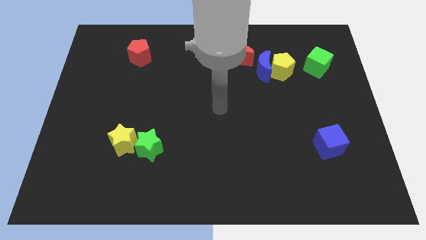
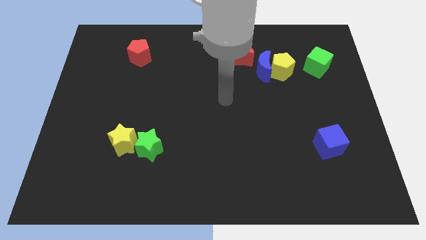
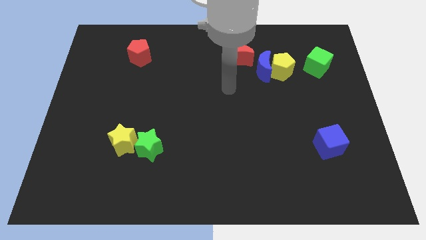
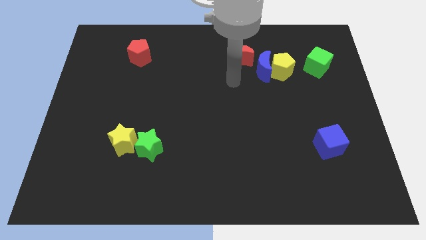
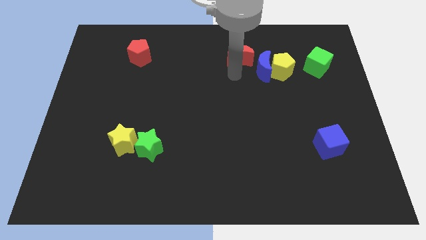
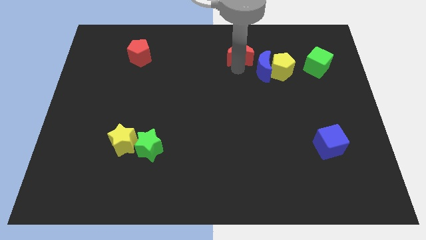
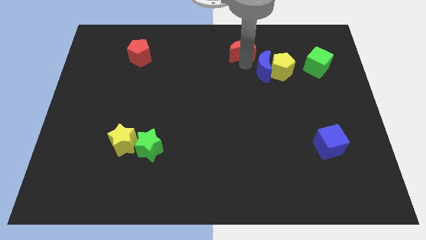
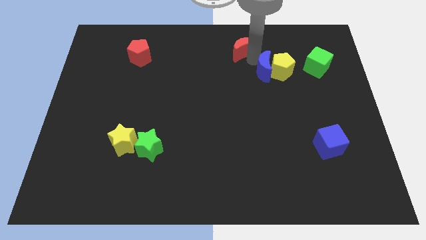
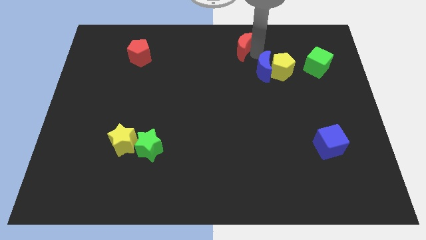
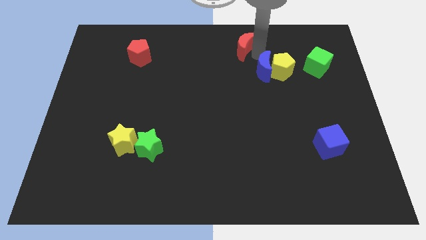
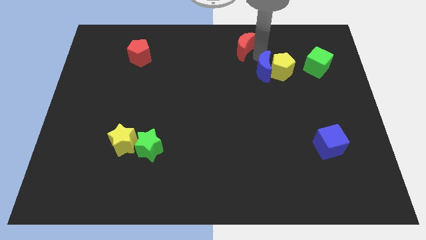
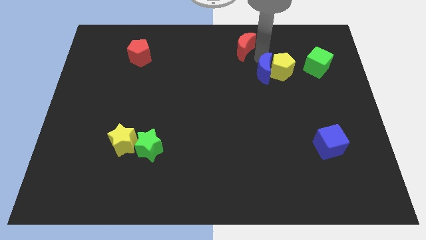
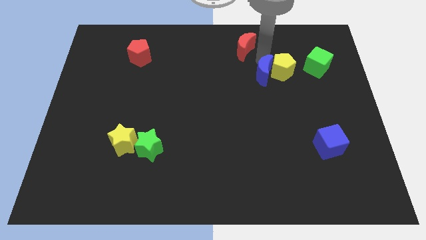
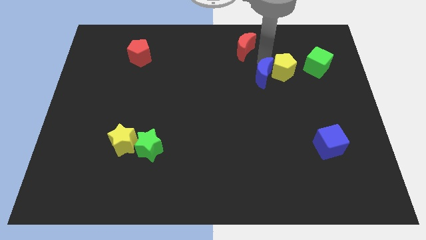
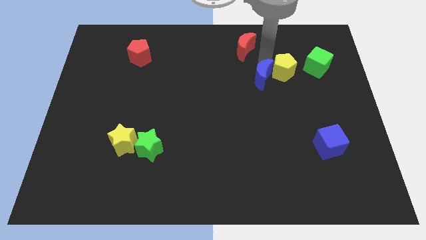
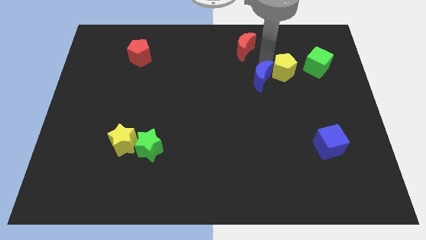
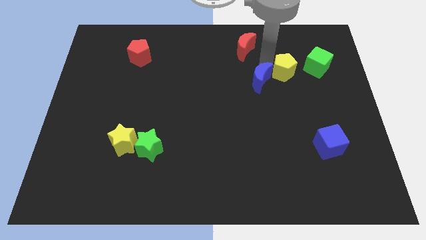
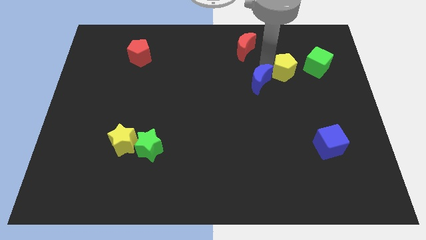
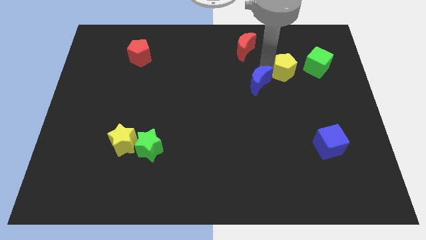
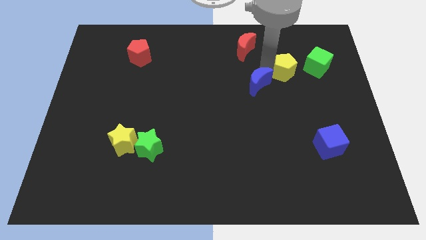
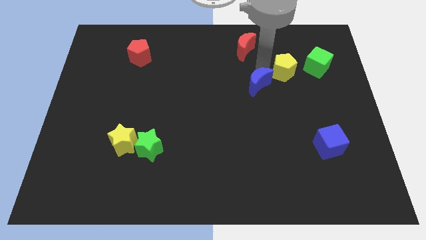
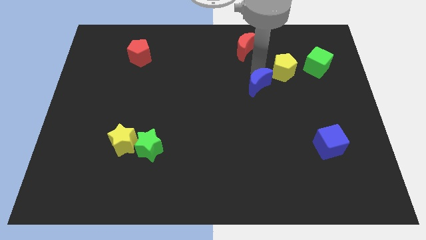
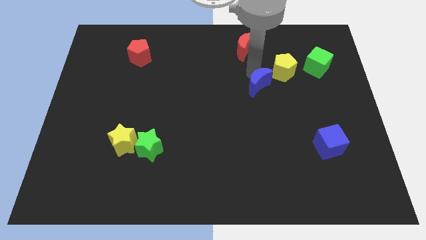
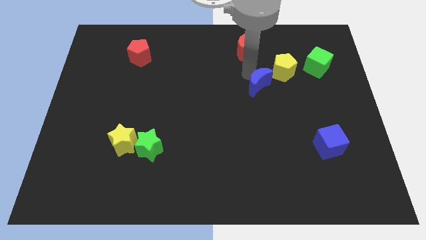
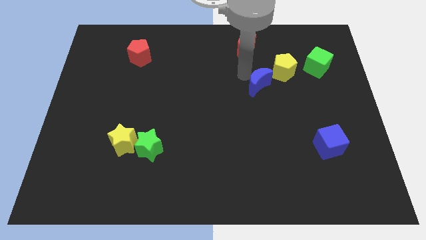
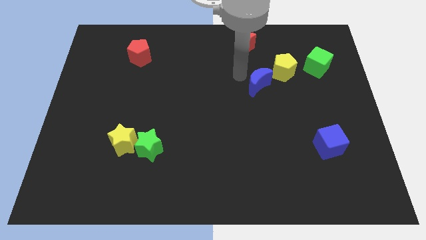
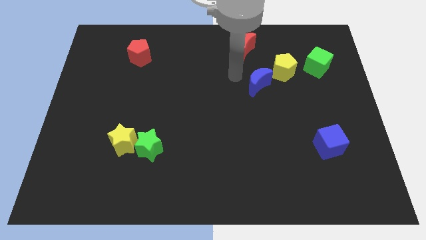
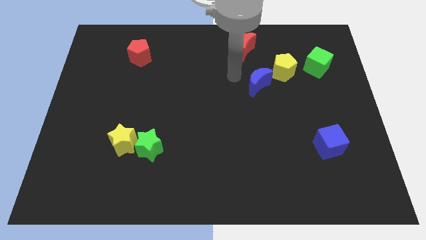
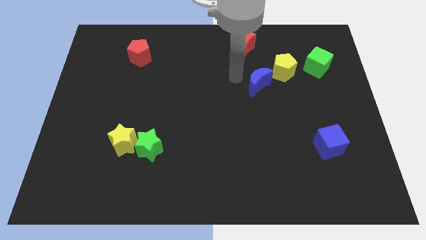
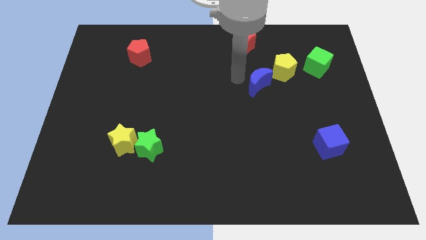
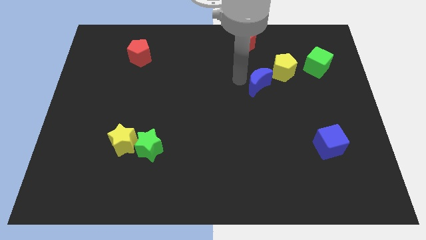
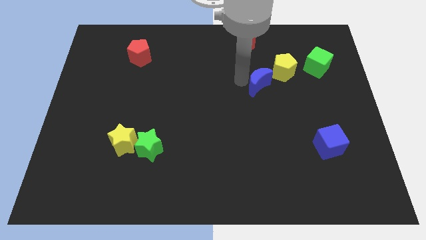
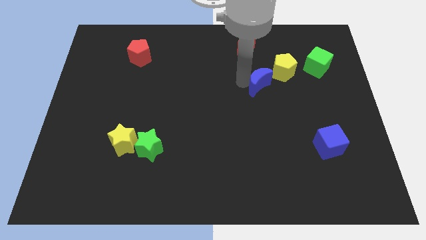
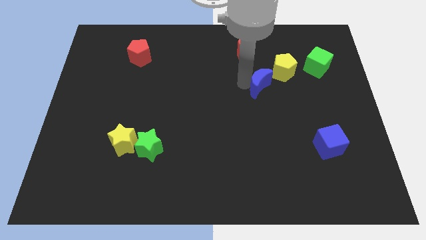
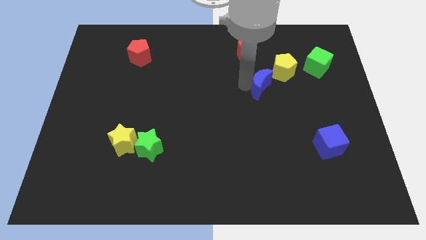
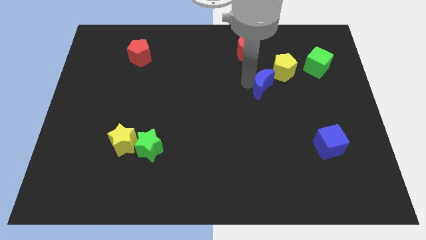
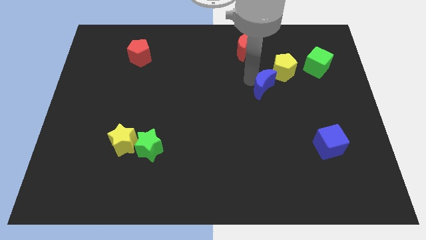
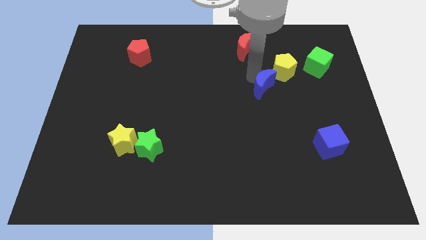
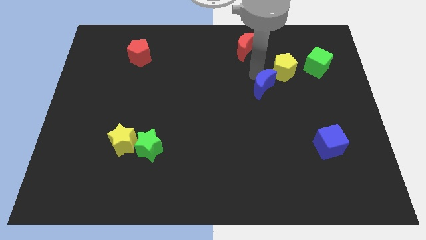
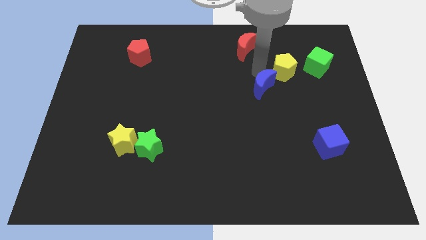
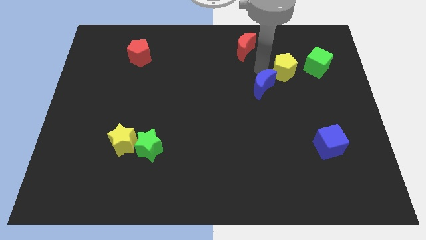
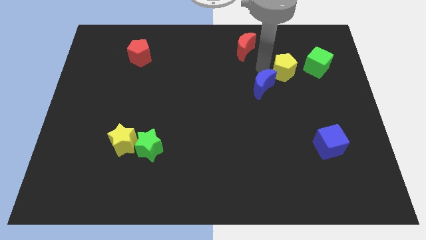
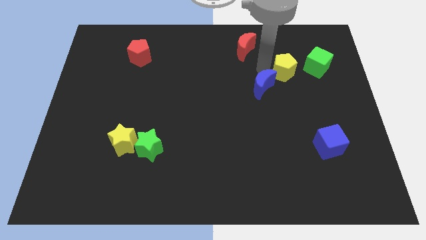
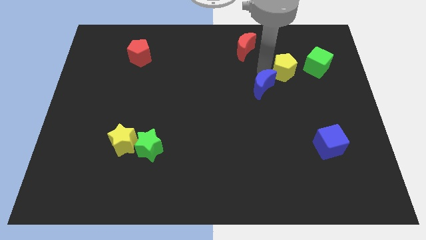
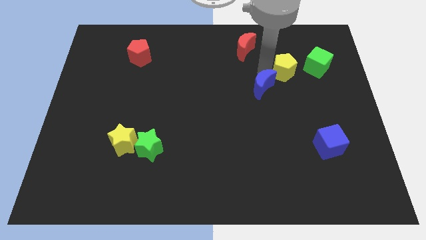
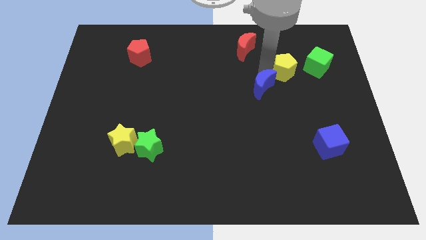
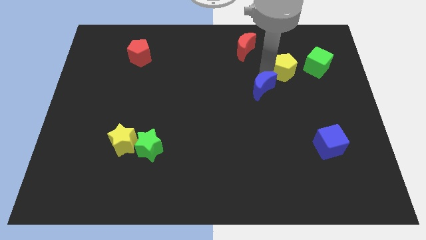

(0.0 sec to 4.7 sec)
separate the blue moon from the yellow pentagon and red moon

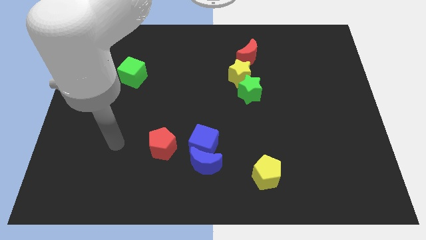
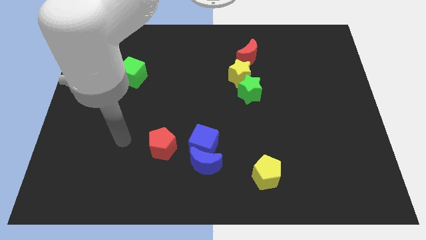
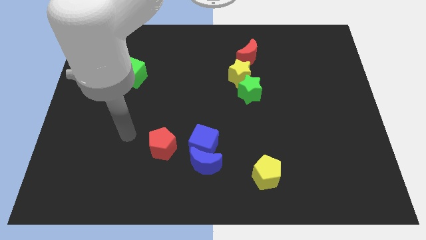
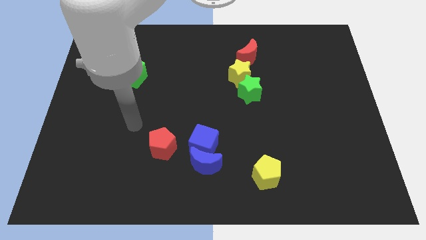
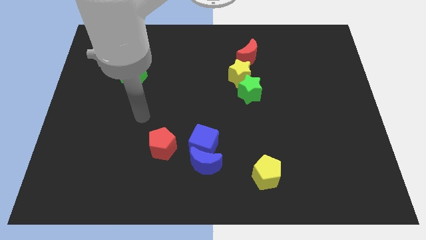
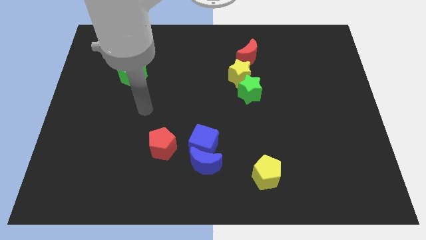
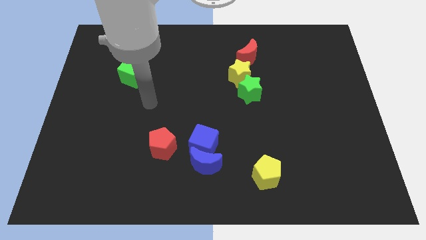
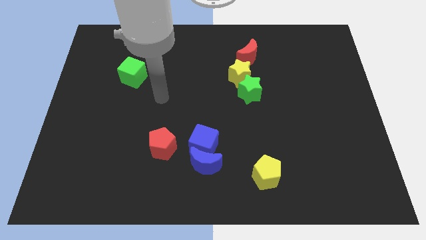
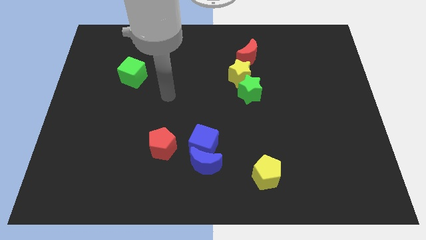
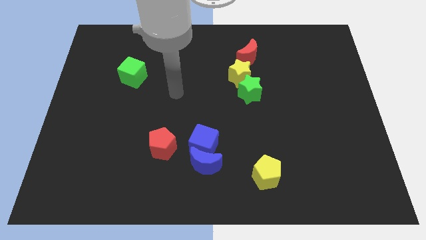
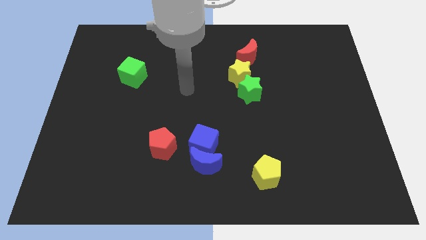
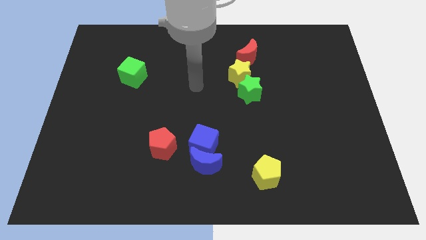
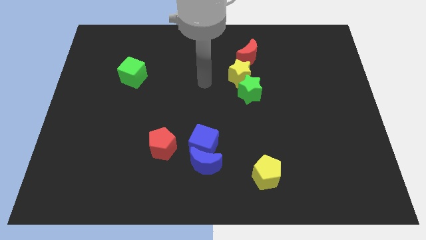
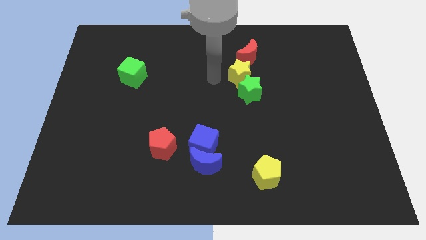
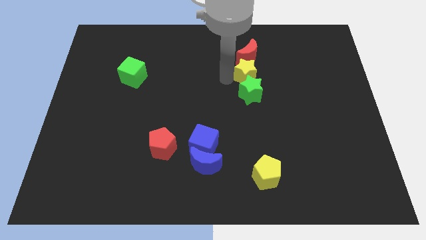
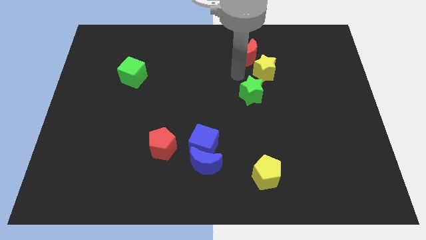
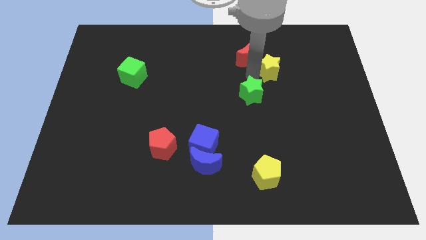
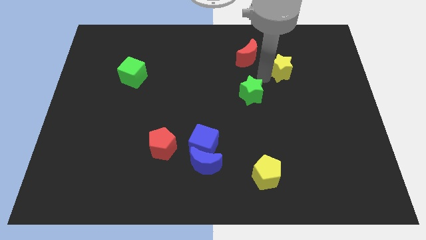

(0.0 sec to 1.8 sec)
pull the green star apart from the yellow star

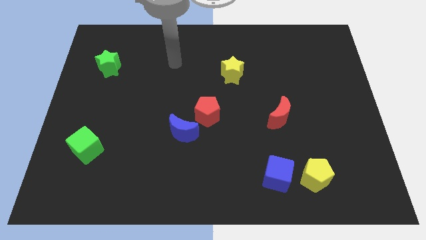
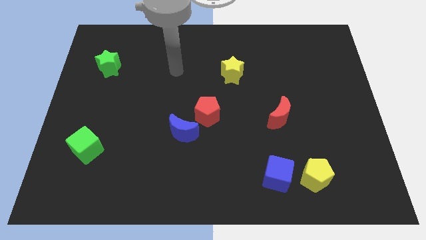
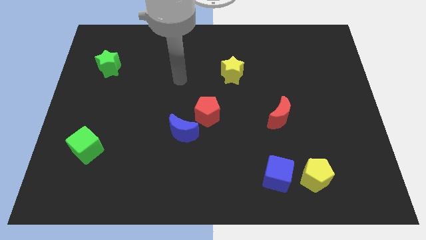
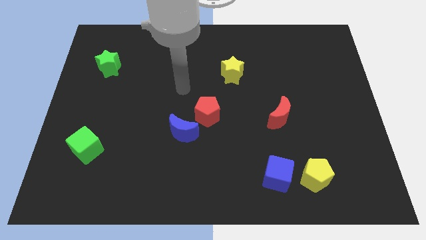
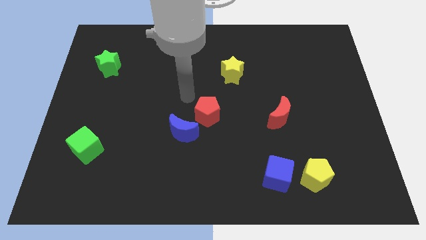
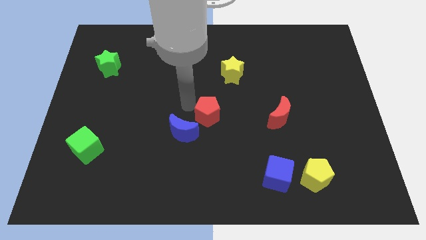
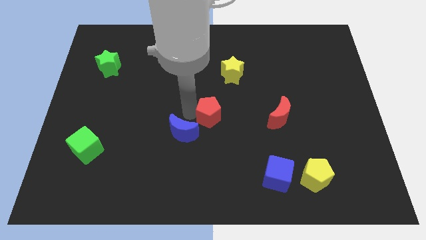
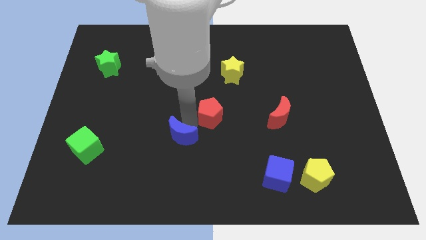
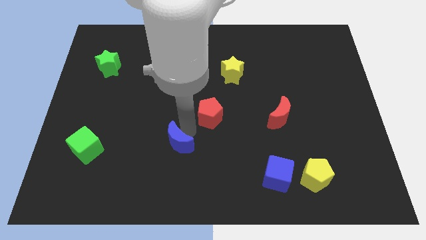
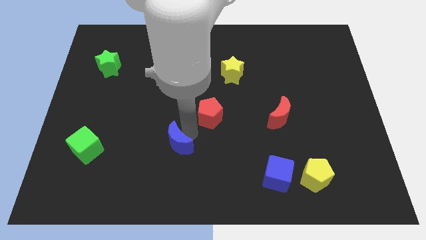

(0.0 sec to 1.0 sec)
pull the red pentagon apart from the blue moon

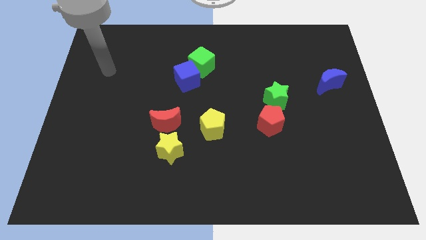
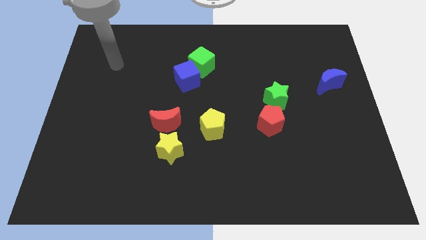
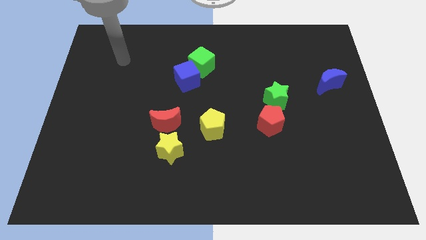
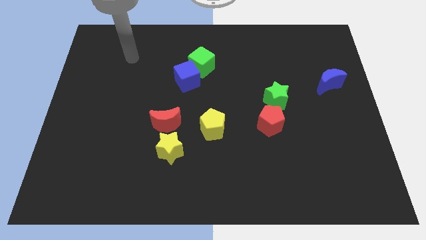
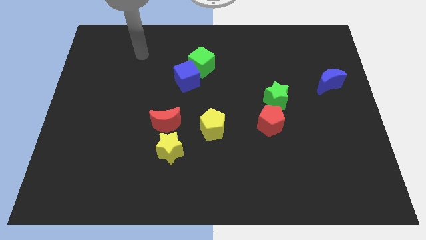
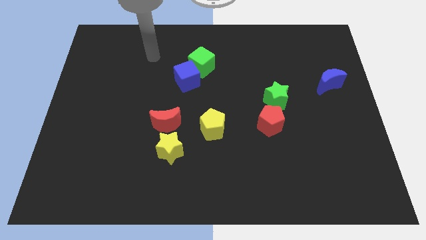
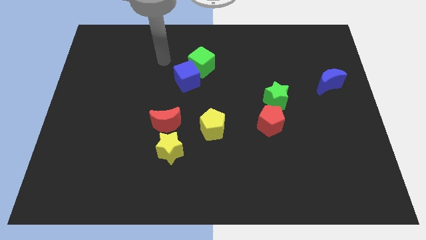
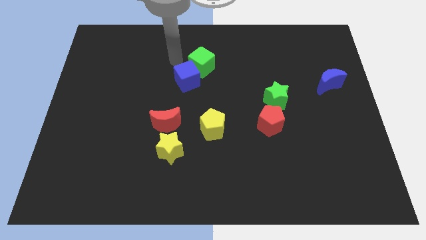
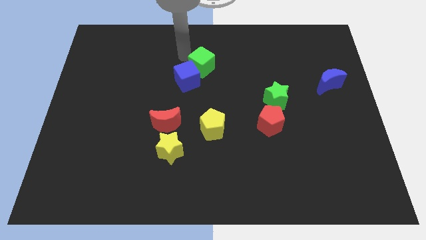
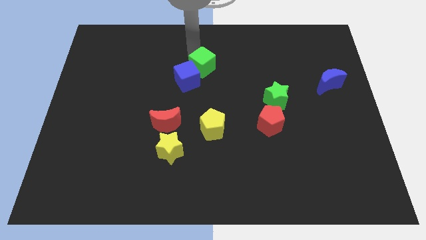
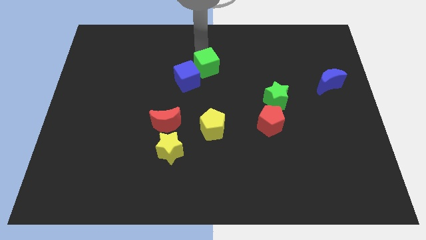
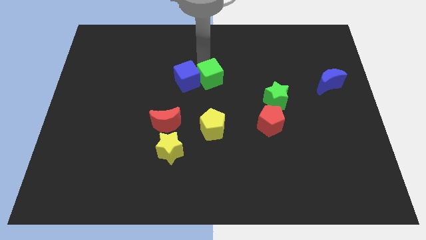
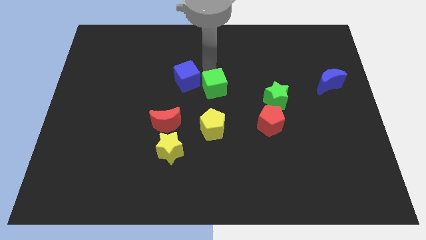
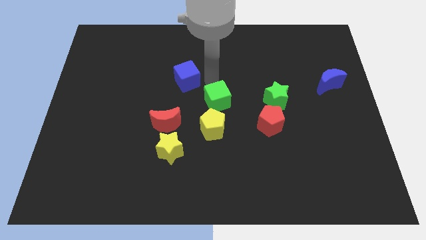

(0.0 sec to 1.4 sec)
pull the blue cube apart from the green cube

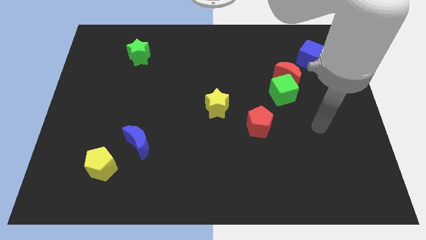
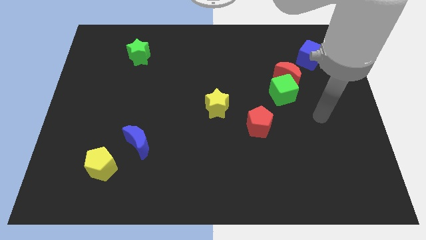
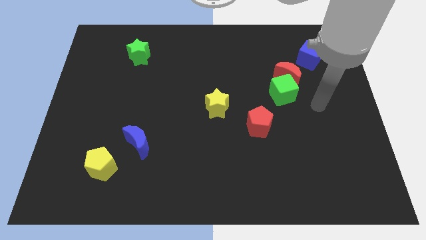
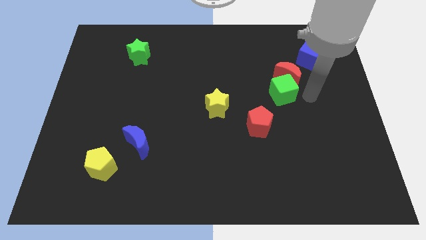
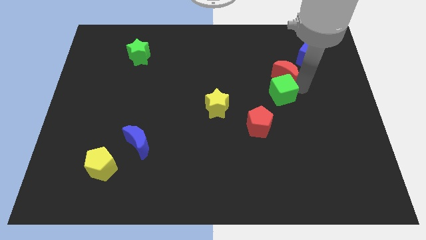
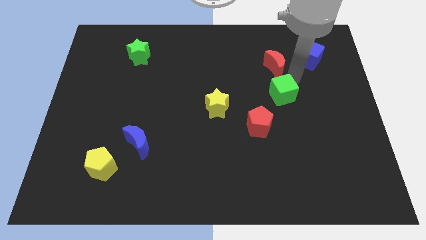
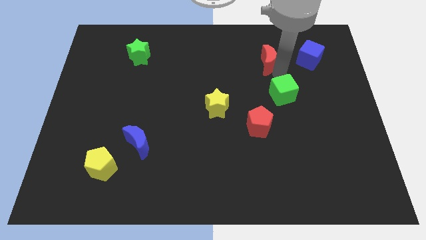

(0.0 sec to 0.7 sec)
separate the green cube from the red moon
